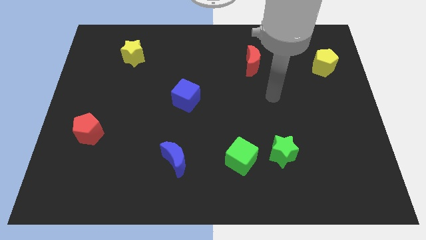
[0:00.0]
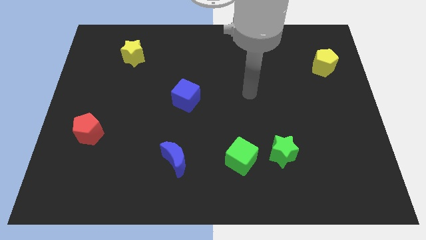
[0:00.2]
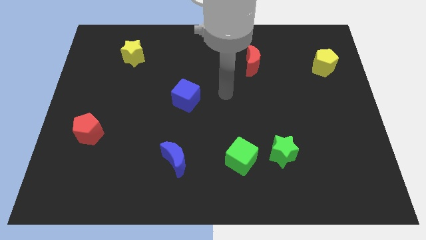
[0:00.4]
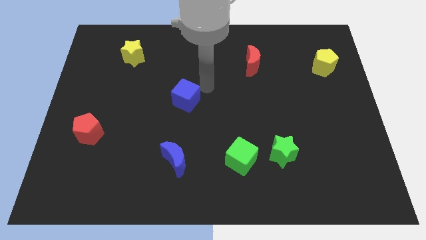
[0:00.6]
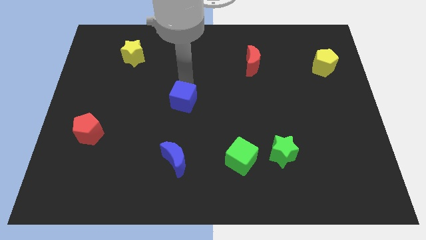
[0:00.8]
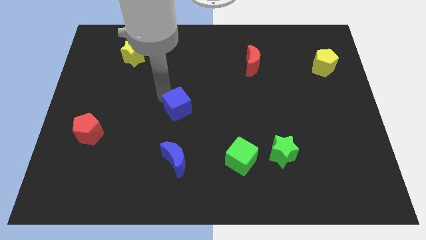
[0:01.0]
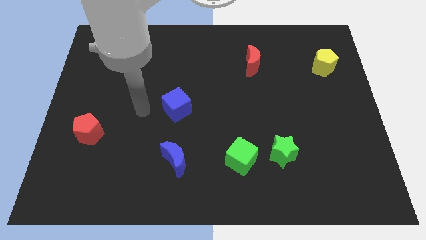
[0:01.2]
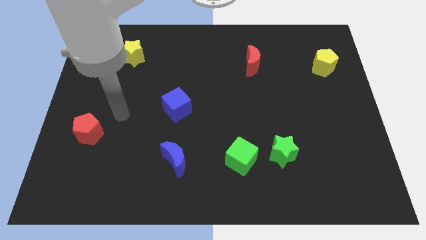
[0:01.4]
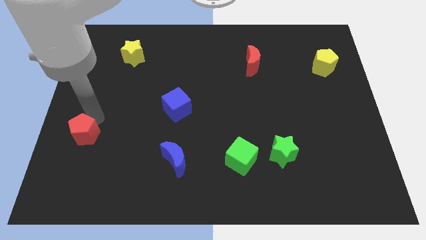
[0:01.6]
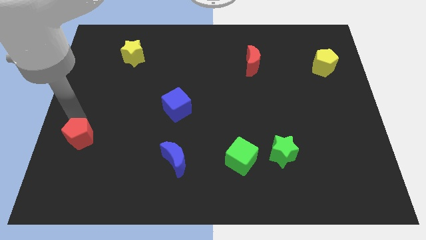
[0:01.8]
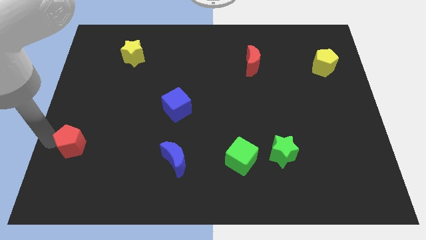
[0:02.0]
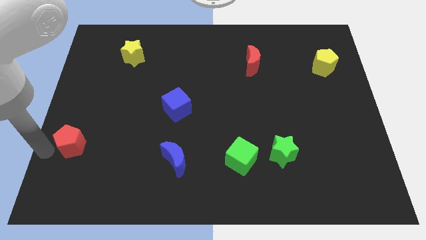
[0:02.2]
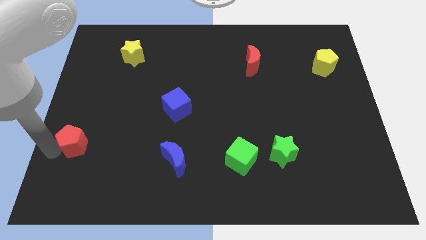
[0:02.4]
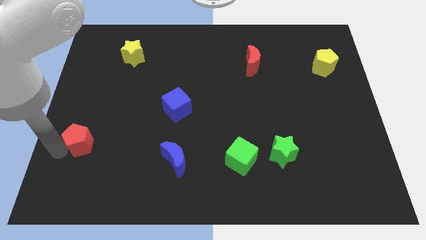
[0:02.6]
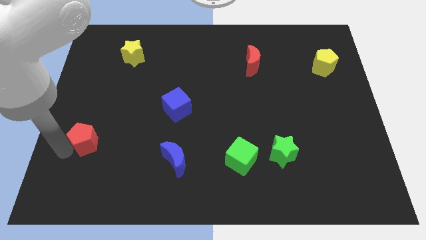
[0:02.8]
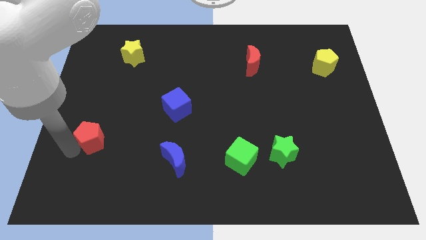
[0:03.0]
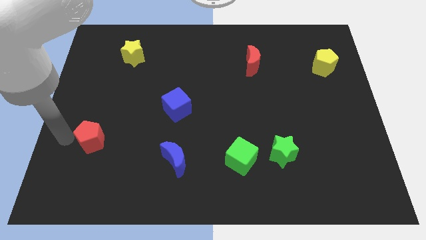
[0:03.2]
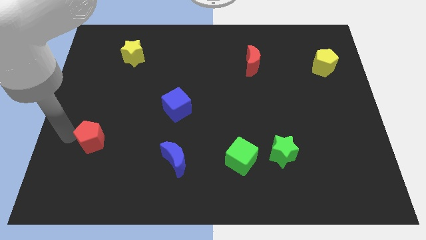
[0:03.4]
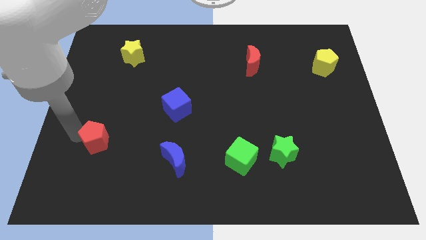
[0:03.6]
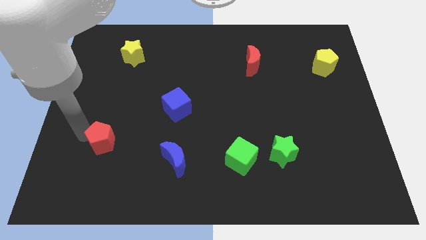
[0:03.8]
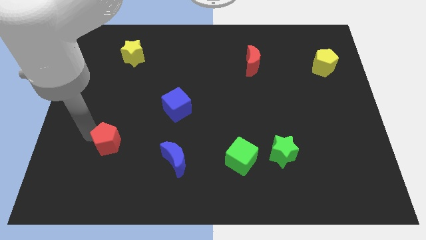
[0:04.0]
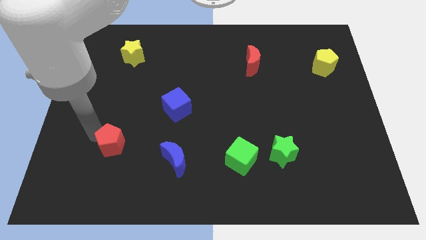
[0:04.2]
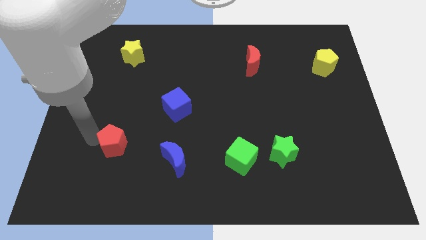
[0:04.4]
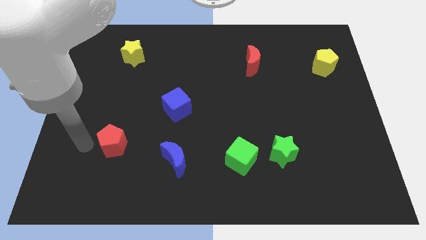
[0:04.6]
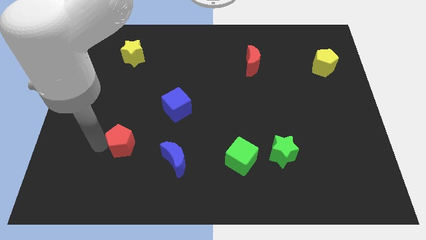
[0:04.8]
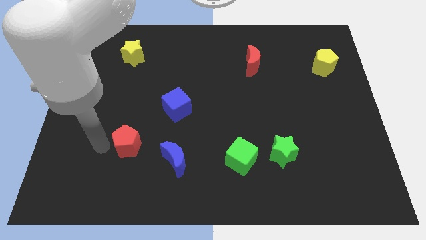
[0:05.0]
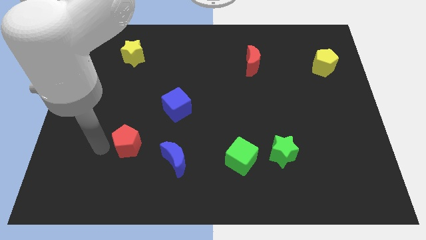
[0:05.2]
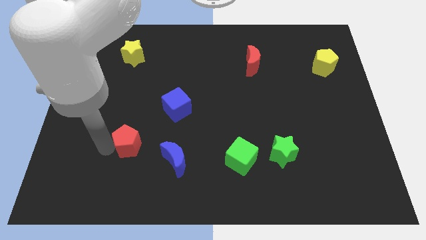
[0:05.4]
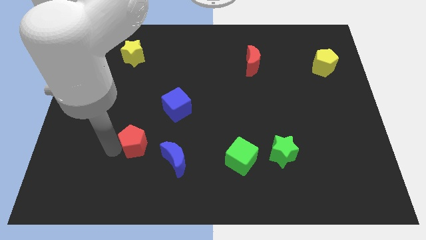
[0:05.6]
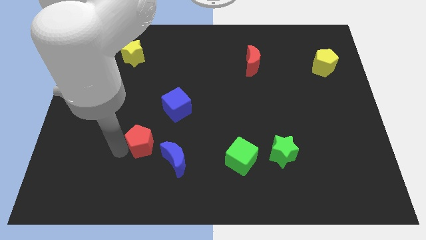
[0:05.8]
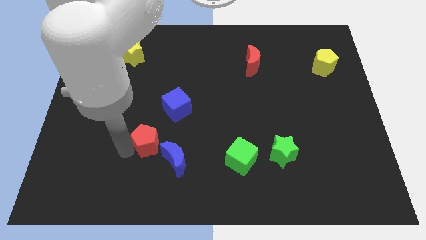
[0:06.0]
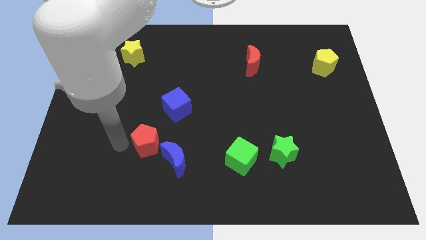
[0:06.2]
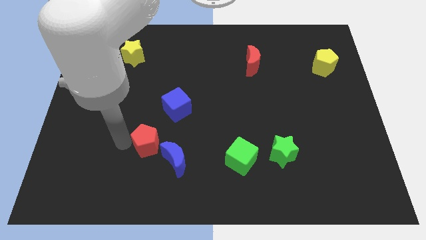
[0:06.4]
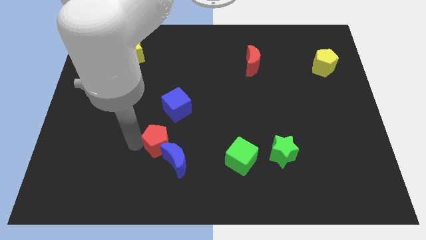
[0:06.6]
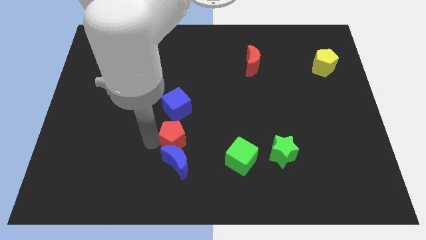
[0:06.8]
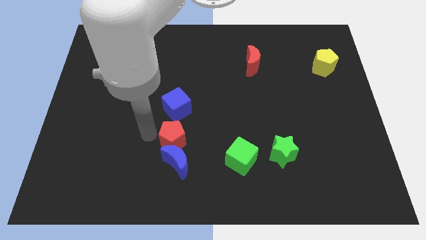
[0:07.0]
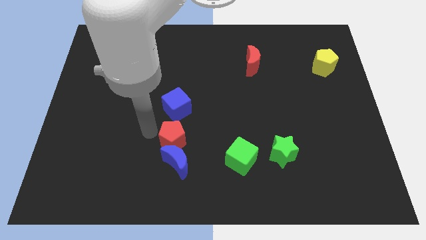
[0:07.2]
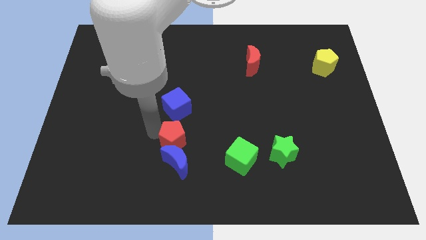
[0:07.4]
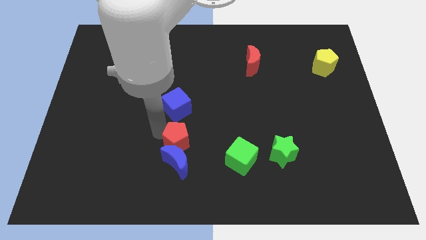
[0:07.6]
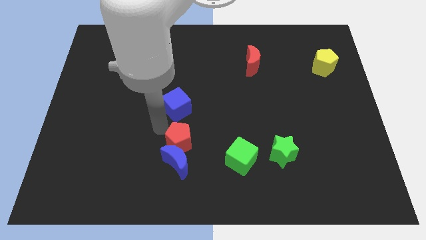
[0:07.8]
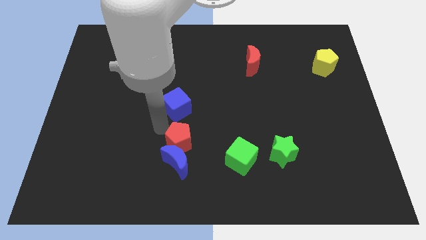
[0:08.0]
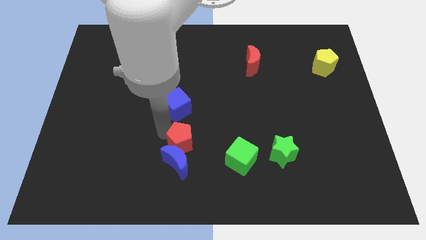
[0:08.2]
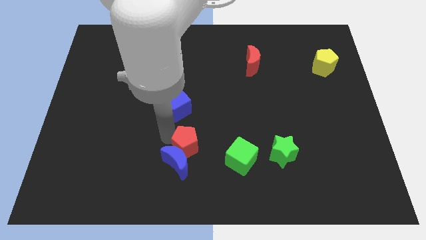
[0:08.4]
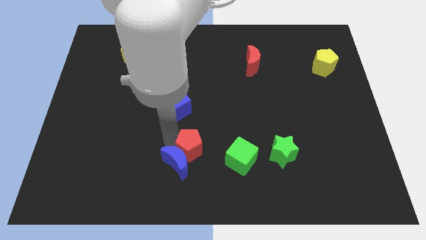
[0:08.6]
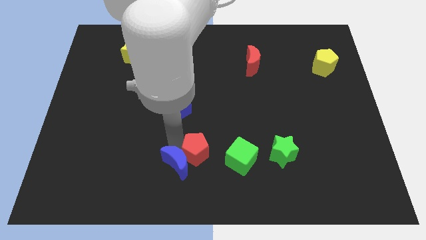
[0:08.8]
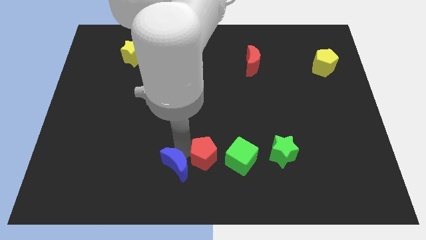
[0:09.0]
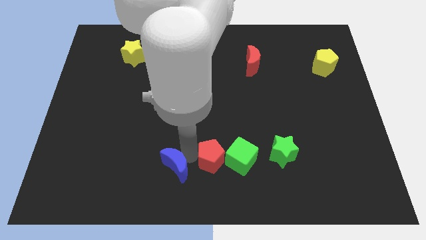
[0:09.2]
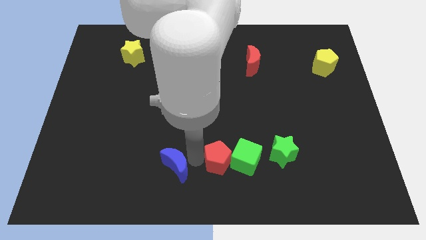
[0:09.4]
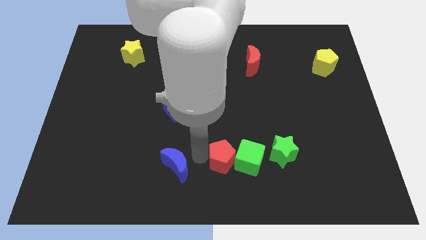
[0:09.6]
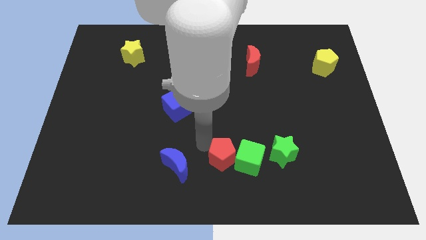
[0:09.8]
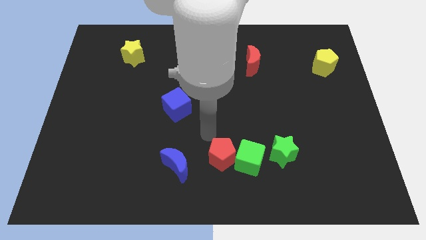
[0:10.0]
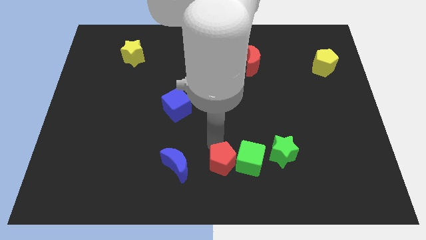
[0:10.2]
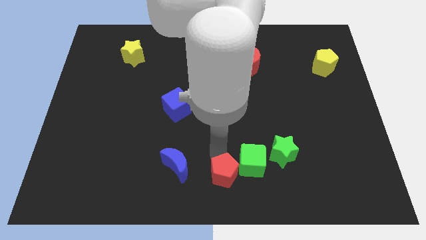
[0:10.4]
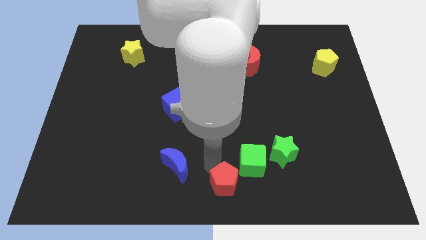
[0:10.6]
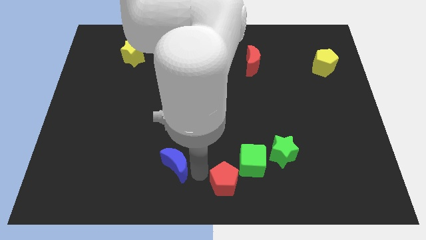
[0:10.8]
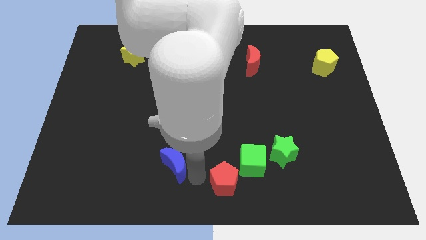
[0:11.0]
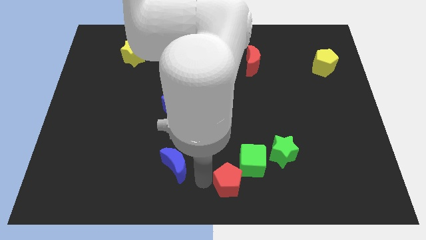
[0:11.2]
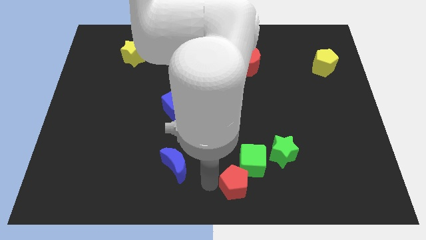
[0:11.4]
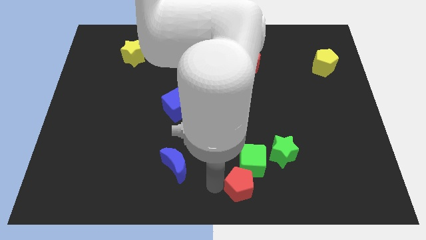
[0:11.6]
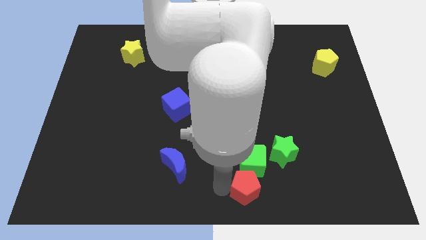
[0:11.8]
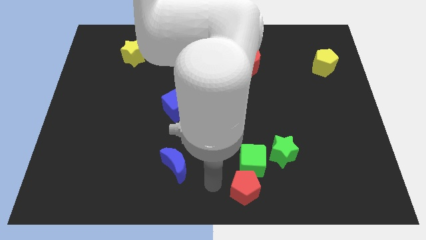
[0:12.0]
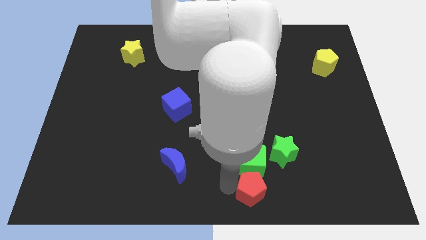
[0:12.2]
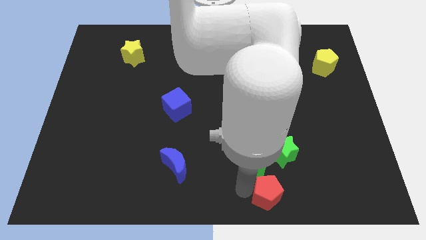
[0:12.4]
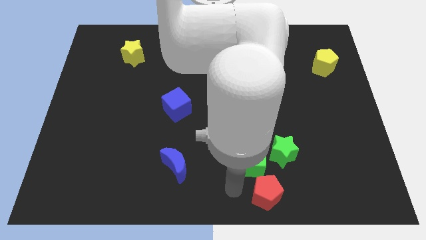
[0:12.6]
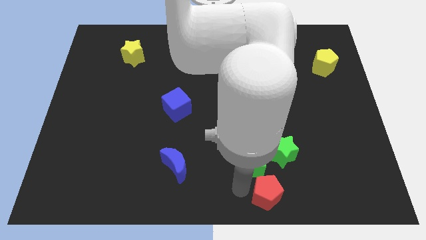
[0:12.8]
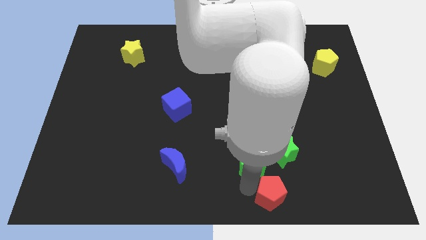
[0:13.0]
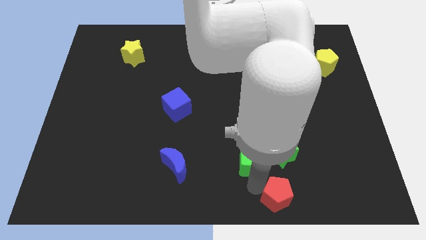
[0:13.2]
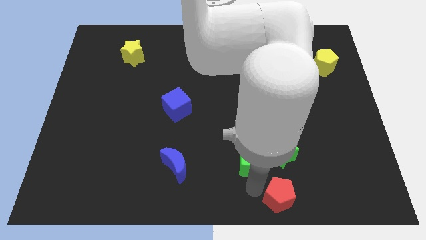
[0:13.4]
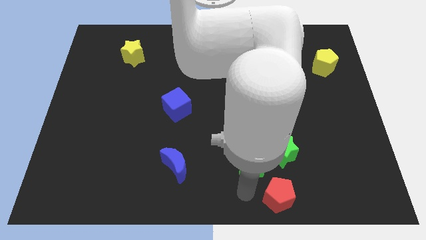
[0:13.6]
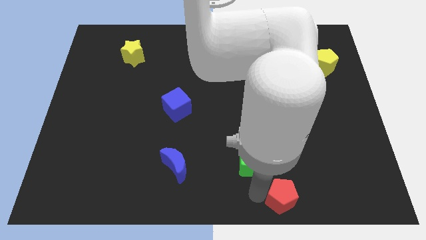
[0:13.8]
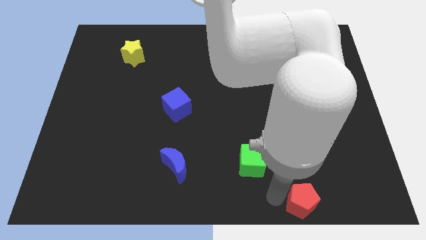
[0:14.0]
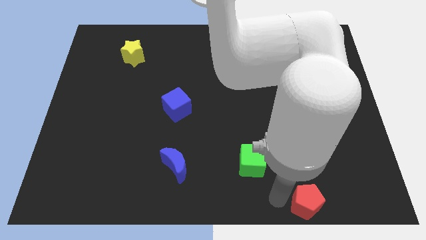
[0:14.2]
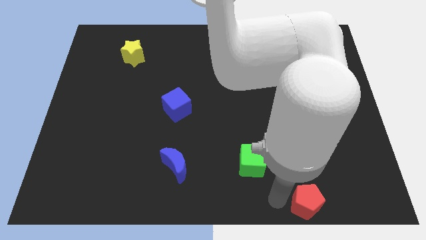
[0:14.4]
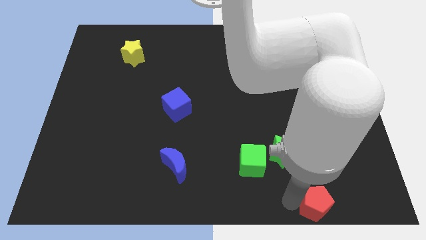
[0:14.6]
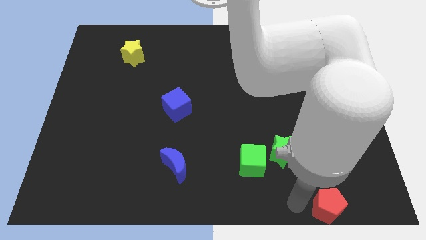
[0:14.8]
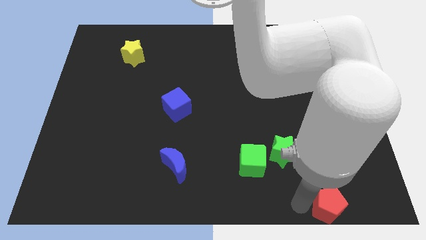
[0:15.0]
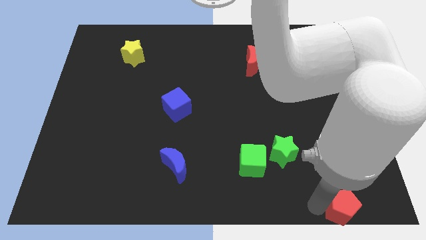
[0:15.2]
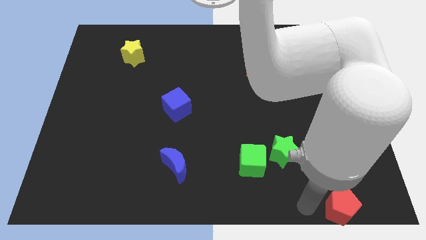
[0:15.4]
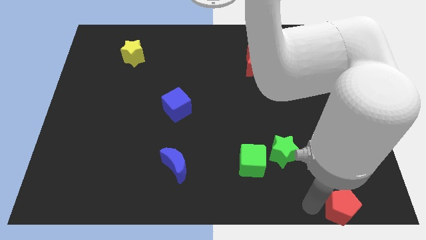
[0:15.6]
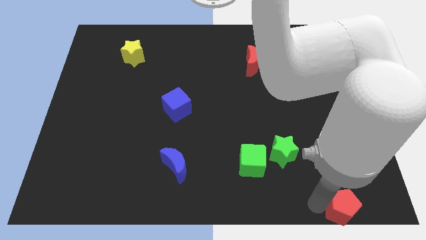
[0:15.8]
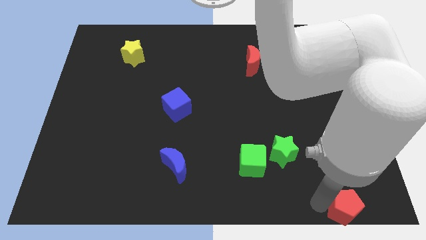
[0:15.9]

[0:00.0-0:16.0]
push the red pentagon to the lower right corner
